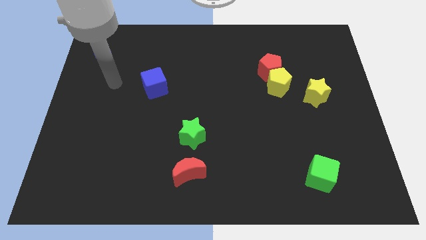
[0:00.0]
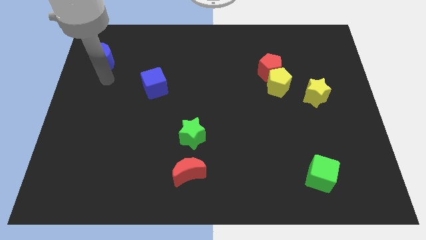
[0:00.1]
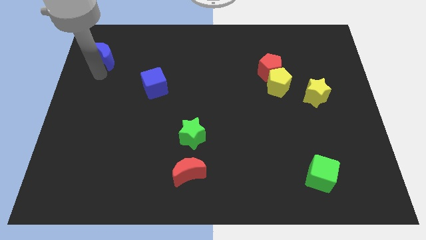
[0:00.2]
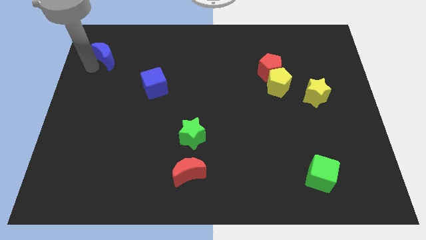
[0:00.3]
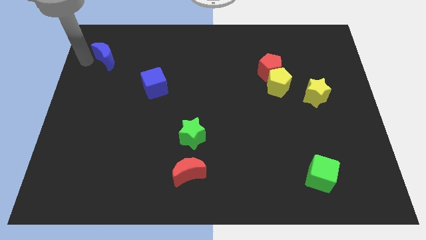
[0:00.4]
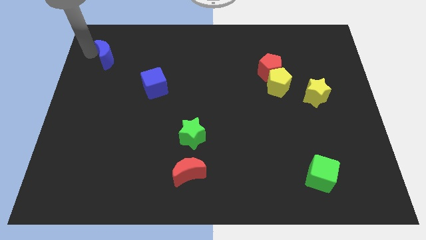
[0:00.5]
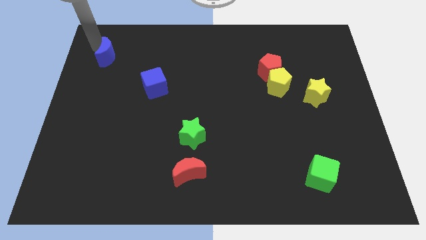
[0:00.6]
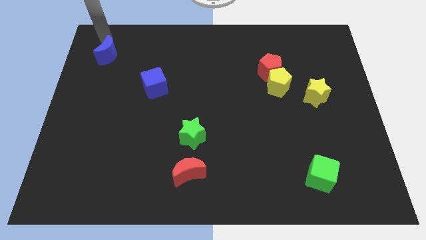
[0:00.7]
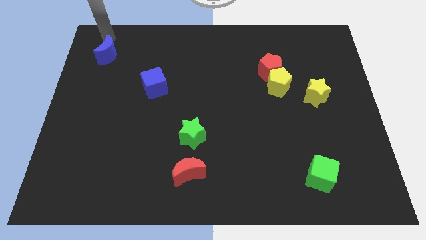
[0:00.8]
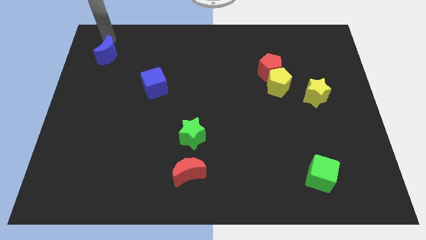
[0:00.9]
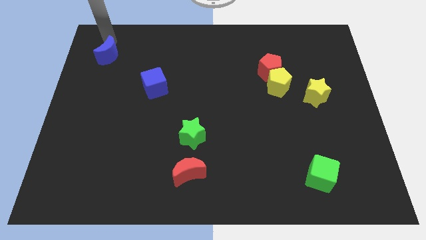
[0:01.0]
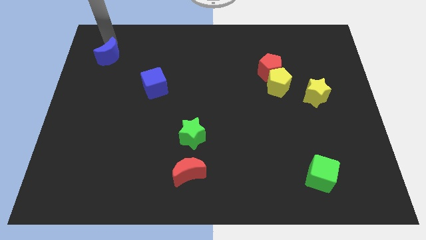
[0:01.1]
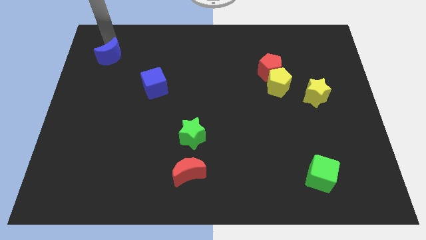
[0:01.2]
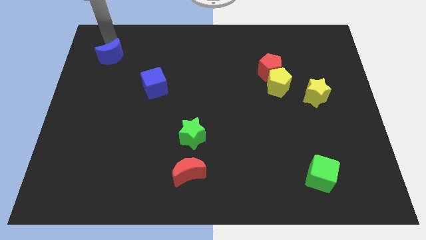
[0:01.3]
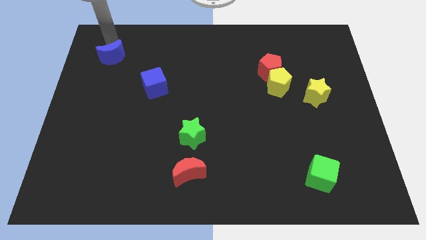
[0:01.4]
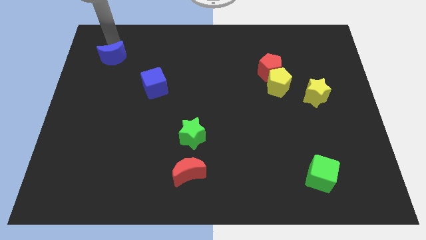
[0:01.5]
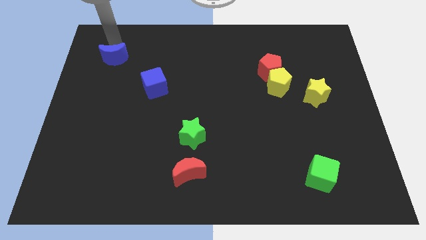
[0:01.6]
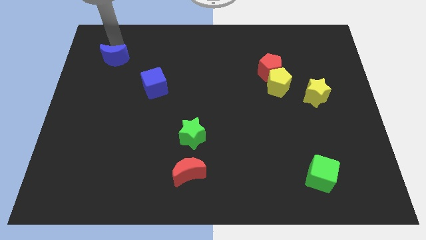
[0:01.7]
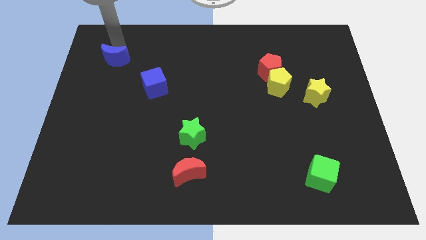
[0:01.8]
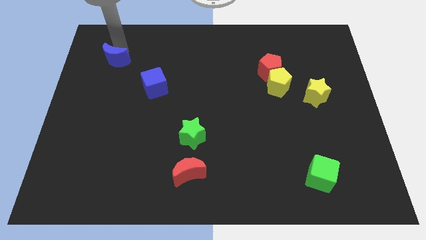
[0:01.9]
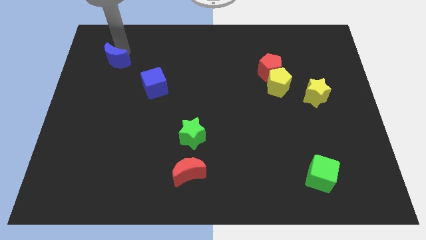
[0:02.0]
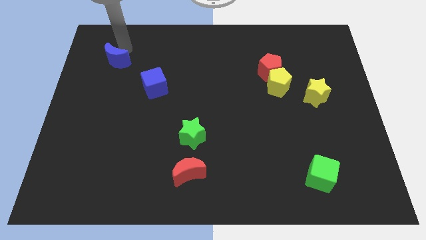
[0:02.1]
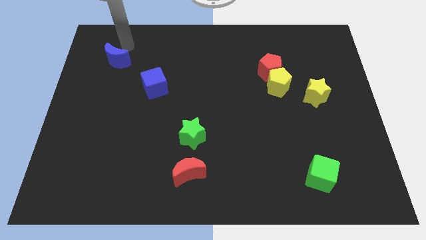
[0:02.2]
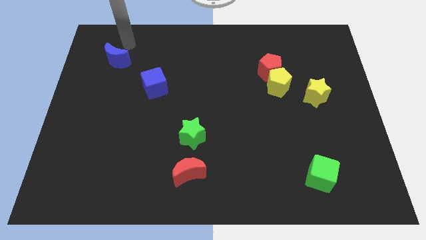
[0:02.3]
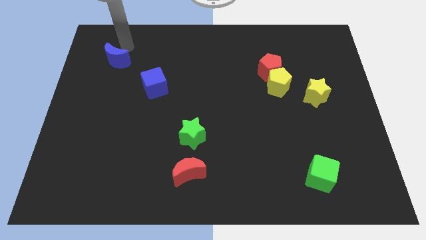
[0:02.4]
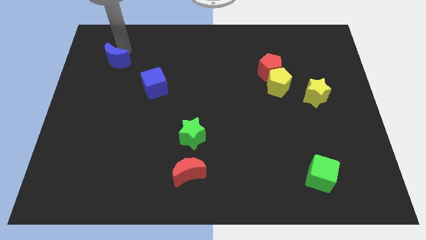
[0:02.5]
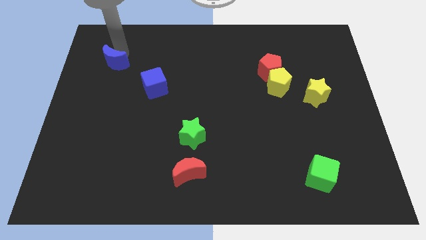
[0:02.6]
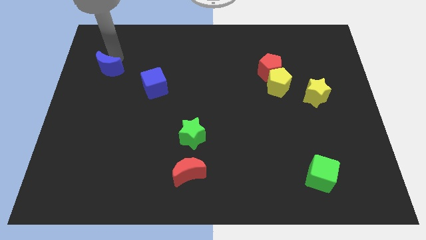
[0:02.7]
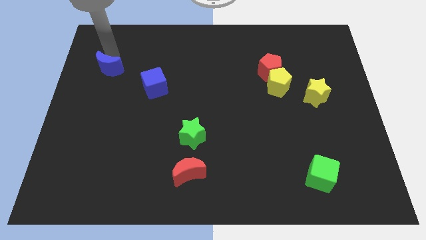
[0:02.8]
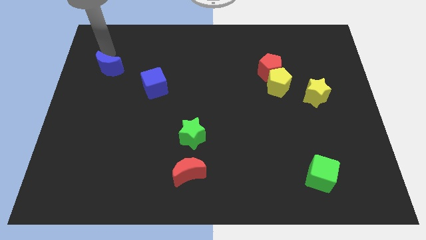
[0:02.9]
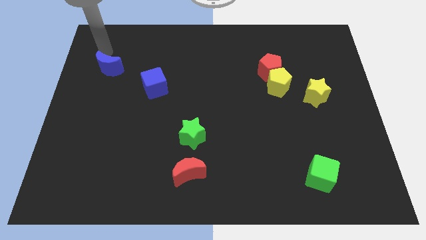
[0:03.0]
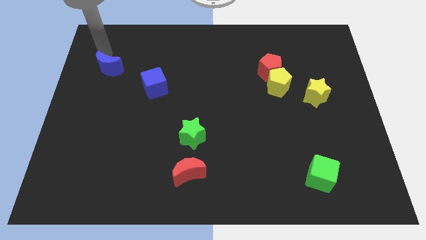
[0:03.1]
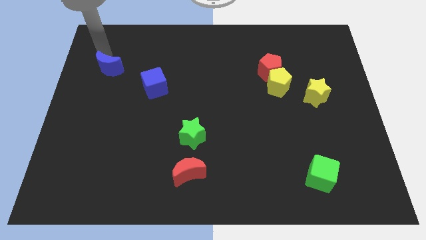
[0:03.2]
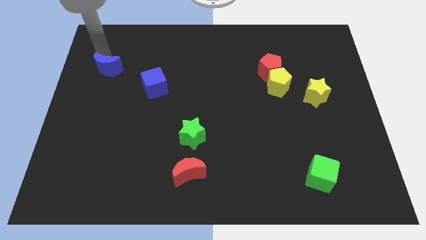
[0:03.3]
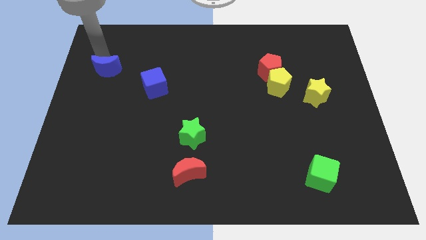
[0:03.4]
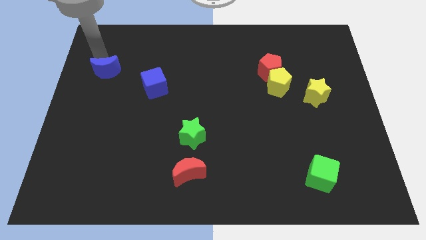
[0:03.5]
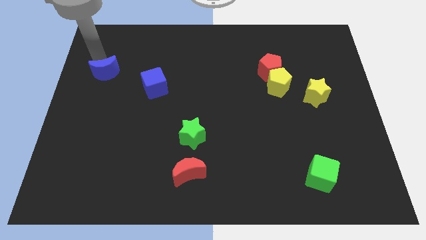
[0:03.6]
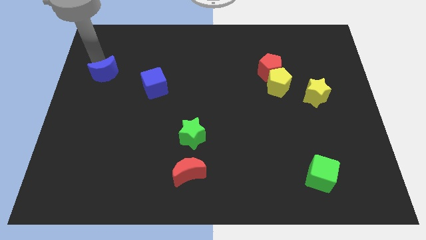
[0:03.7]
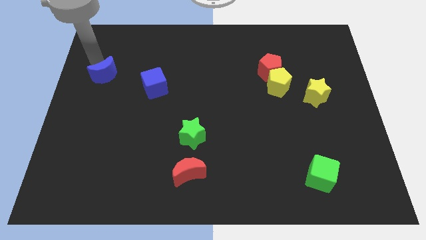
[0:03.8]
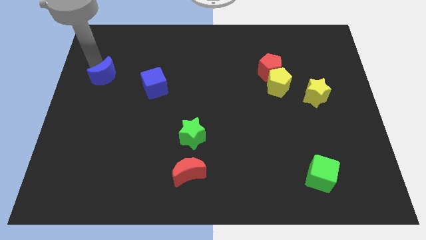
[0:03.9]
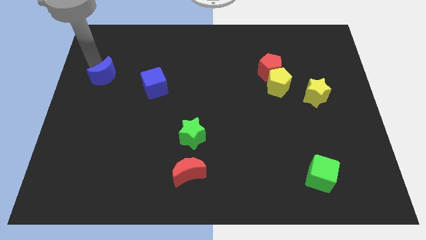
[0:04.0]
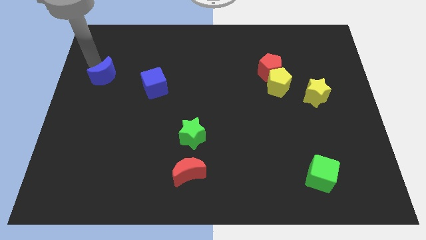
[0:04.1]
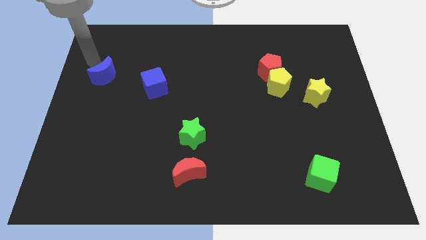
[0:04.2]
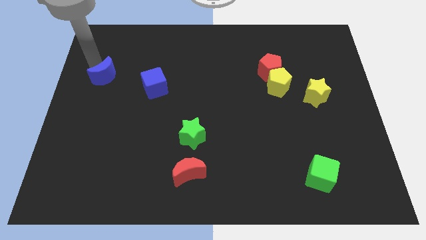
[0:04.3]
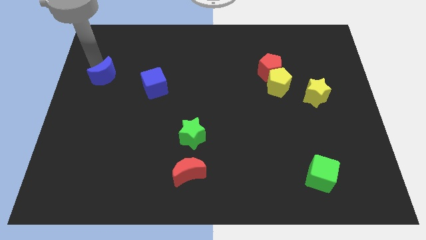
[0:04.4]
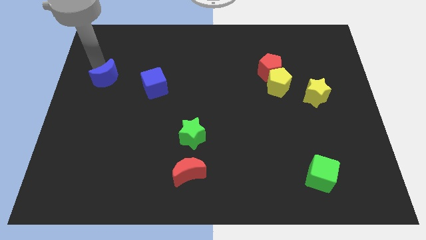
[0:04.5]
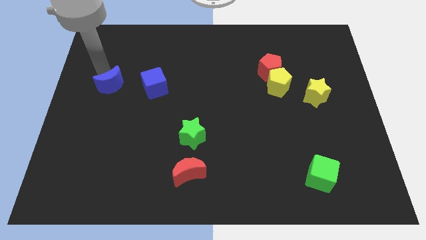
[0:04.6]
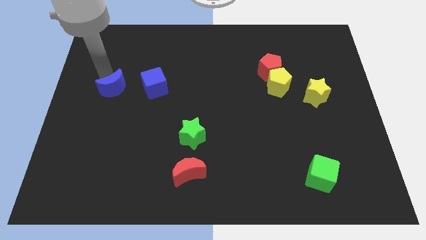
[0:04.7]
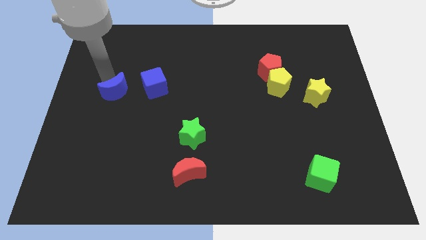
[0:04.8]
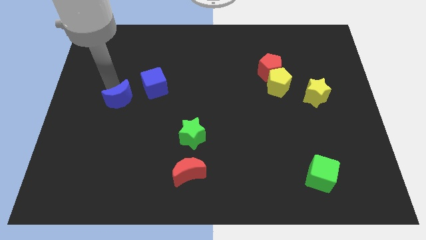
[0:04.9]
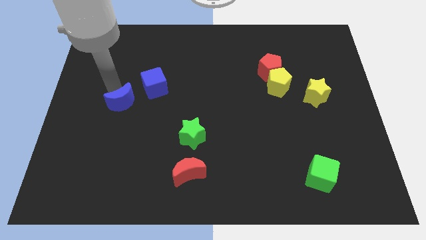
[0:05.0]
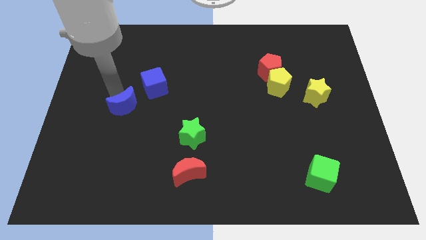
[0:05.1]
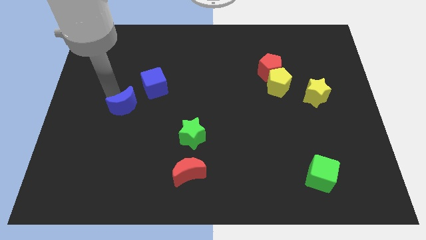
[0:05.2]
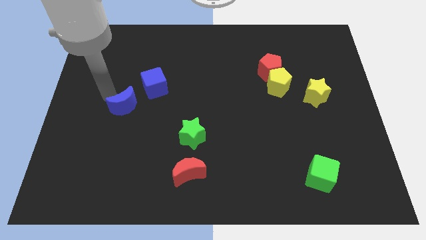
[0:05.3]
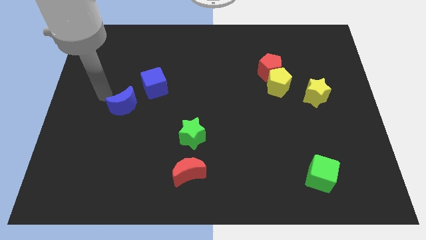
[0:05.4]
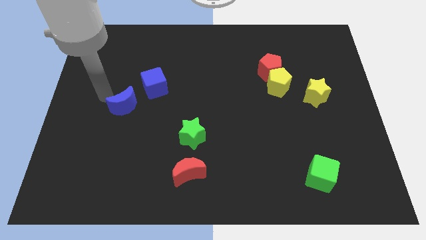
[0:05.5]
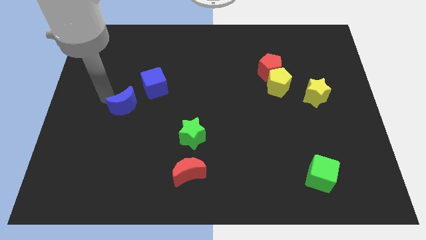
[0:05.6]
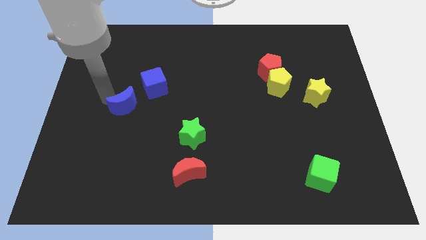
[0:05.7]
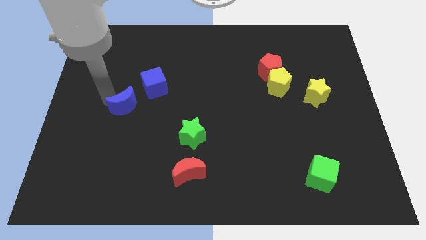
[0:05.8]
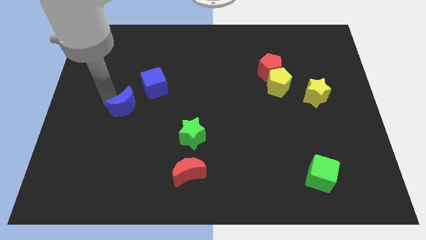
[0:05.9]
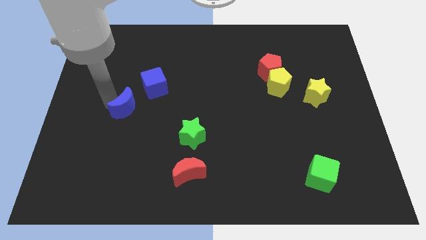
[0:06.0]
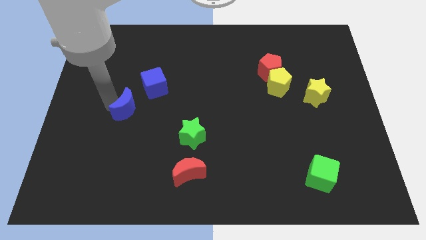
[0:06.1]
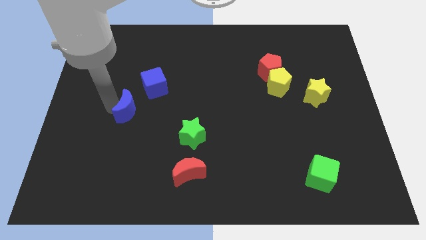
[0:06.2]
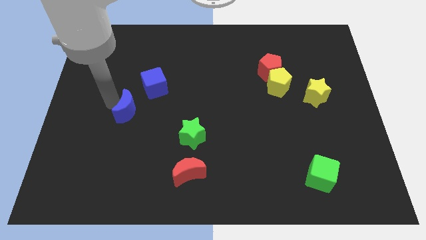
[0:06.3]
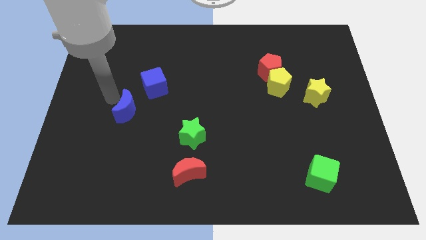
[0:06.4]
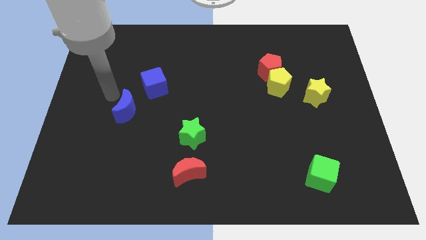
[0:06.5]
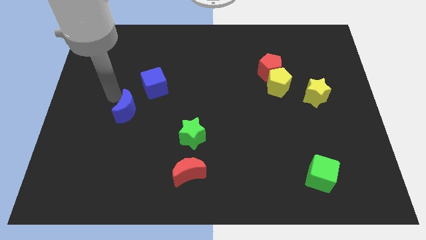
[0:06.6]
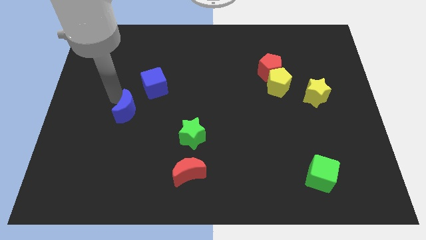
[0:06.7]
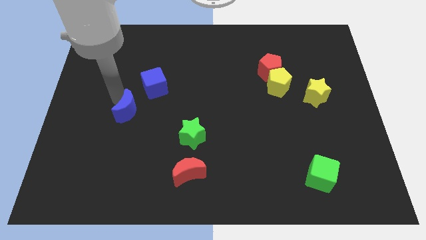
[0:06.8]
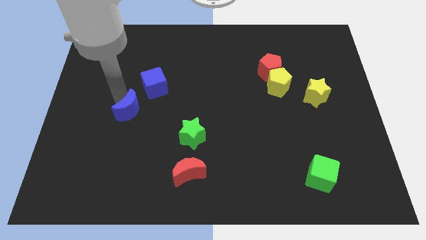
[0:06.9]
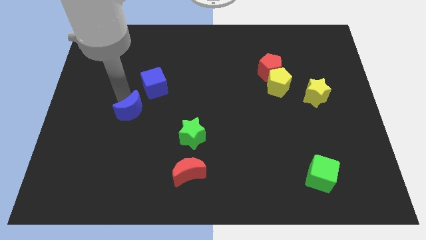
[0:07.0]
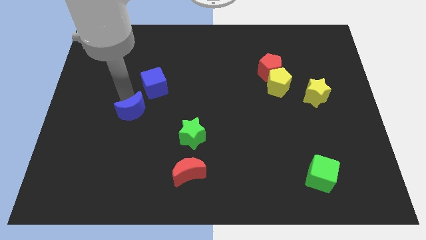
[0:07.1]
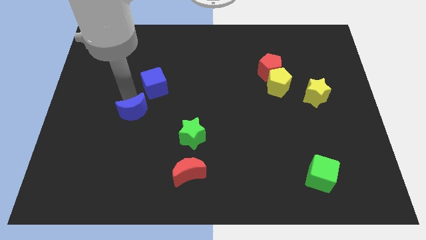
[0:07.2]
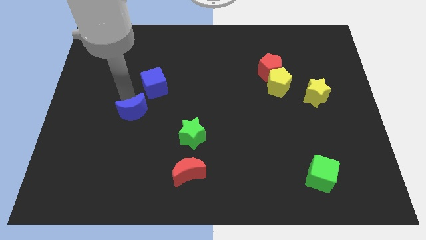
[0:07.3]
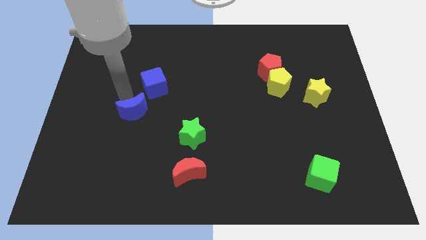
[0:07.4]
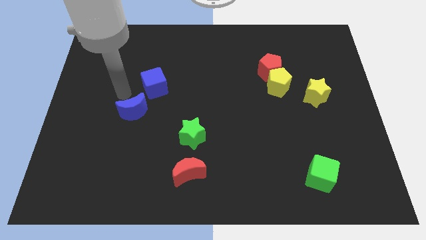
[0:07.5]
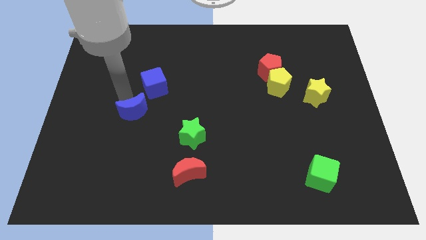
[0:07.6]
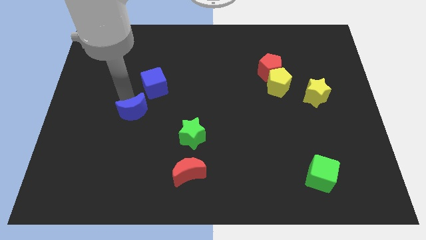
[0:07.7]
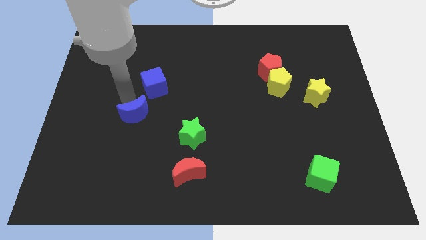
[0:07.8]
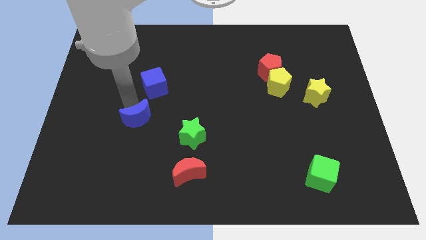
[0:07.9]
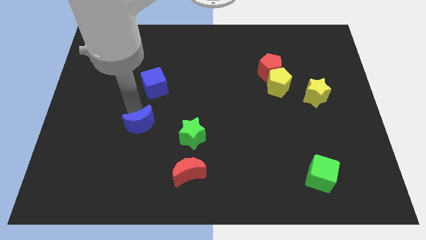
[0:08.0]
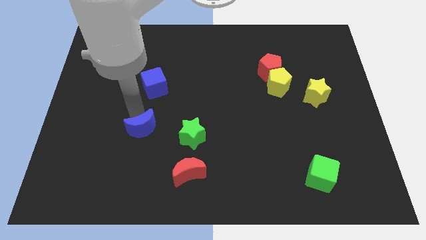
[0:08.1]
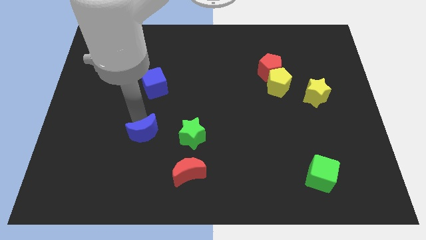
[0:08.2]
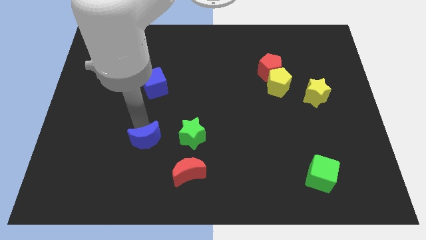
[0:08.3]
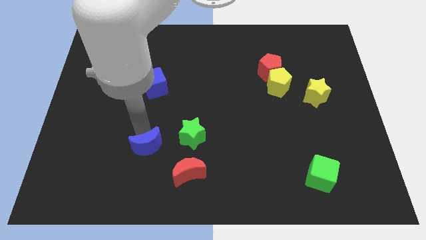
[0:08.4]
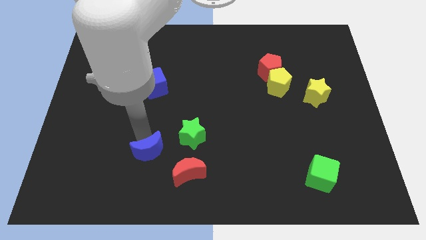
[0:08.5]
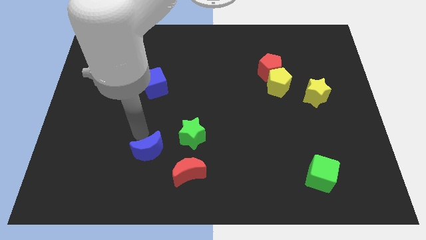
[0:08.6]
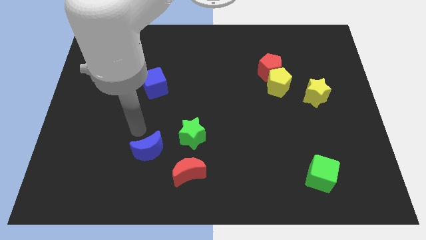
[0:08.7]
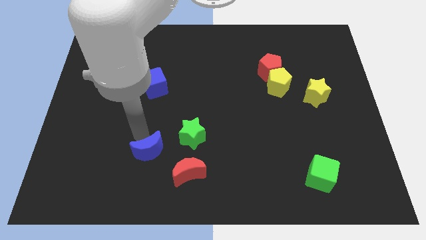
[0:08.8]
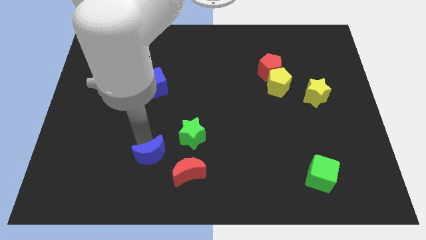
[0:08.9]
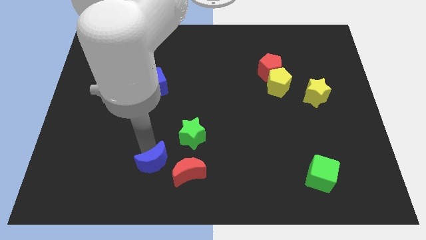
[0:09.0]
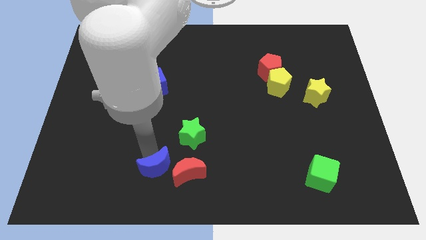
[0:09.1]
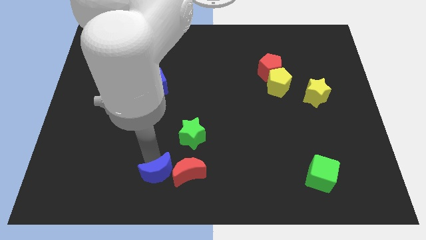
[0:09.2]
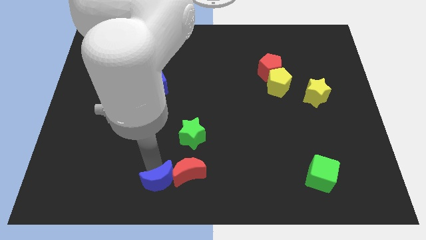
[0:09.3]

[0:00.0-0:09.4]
put the blue moon to the bottom
